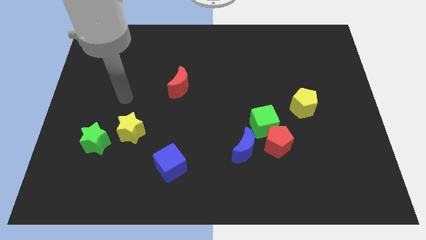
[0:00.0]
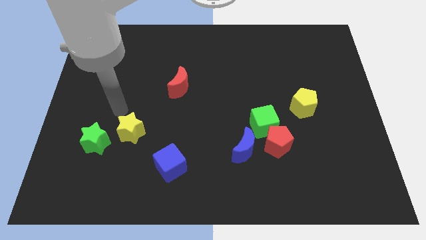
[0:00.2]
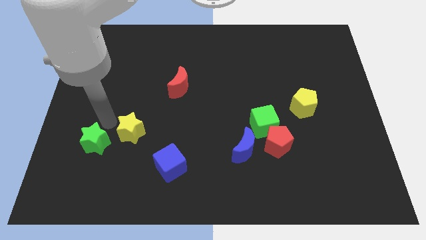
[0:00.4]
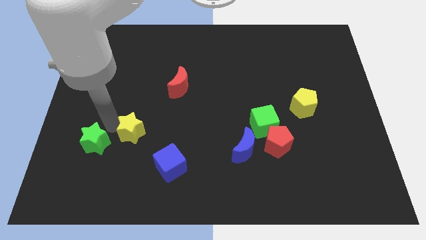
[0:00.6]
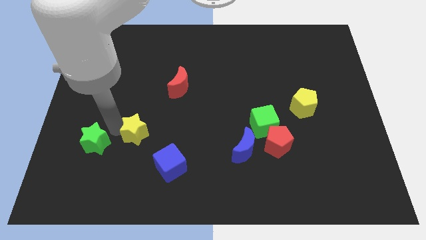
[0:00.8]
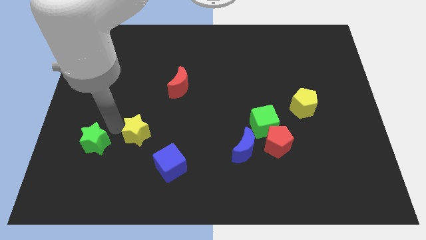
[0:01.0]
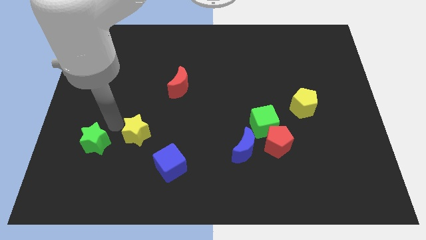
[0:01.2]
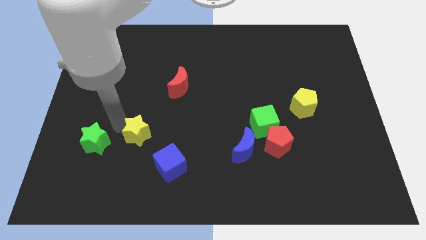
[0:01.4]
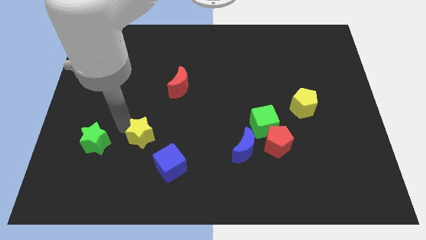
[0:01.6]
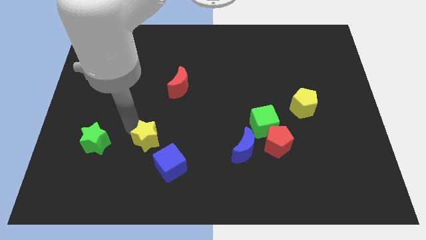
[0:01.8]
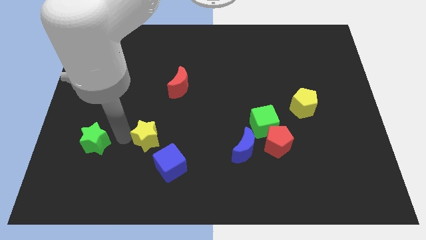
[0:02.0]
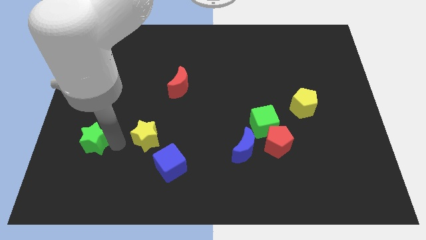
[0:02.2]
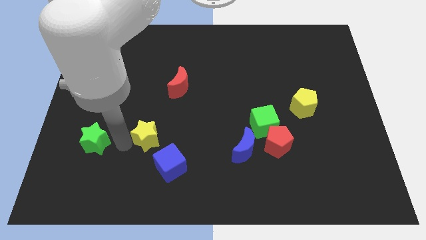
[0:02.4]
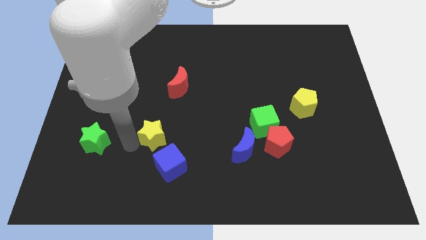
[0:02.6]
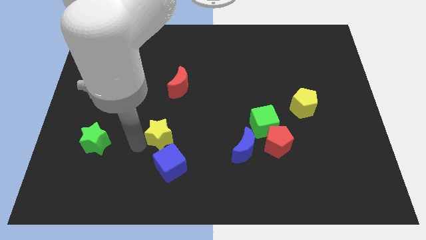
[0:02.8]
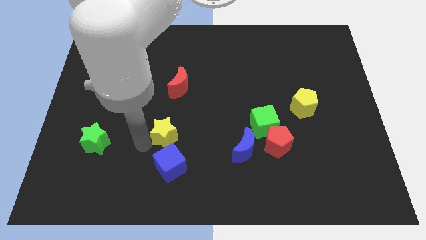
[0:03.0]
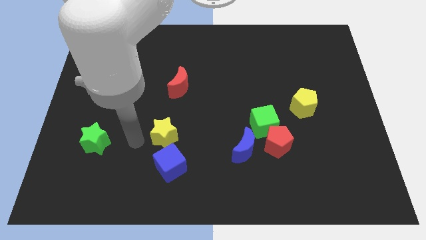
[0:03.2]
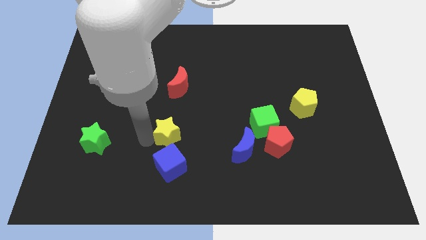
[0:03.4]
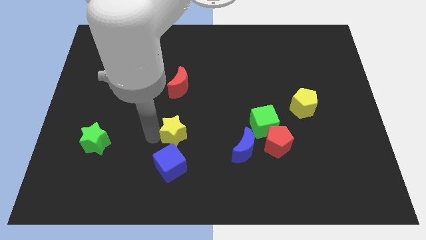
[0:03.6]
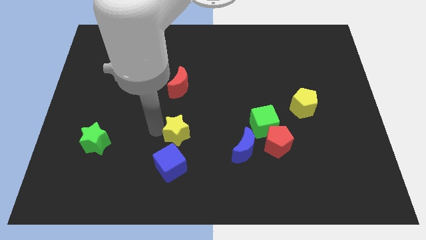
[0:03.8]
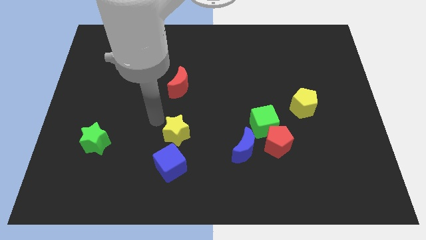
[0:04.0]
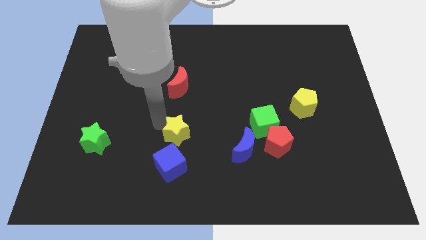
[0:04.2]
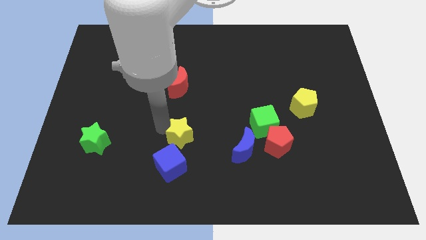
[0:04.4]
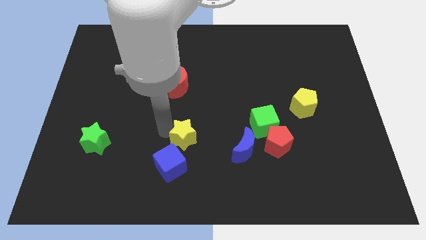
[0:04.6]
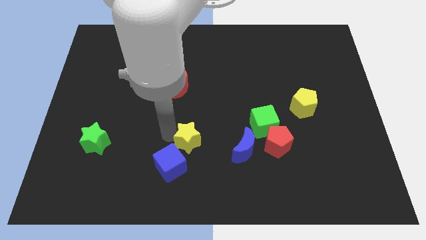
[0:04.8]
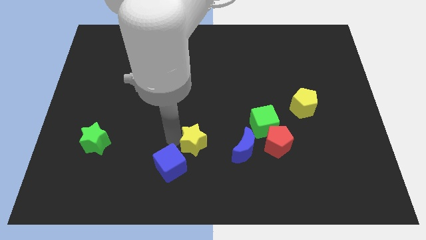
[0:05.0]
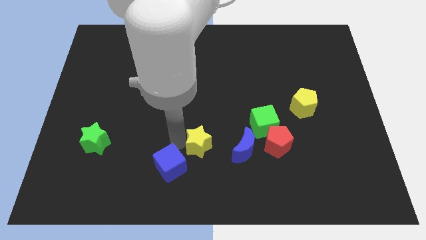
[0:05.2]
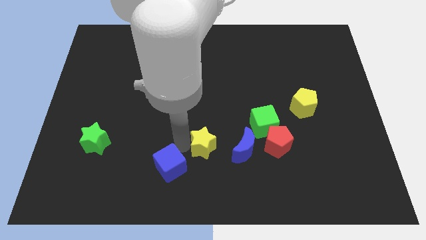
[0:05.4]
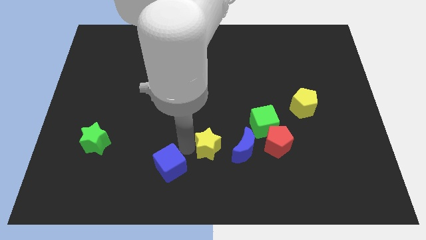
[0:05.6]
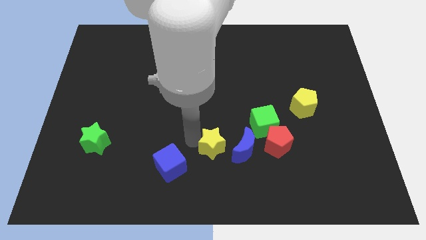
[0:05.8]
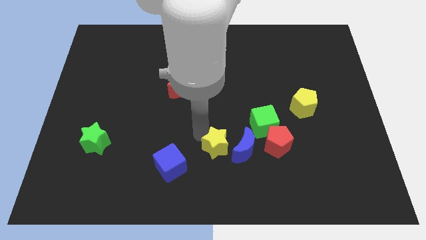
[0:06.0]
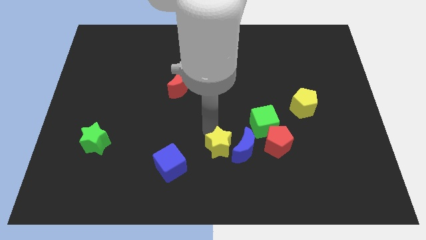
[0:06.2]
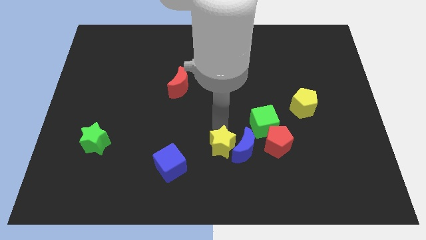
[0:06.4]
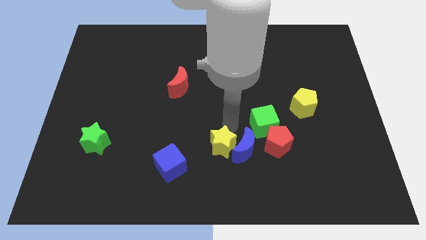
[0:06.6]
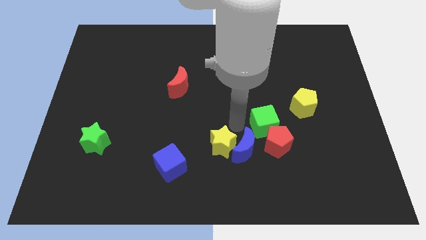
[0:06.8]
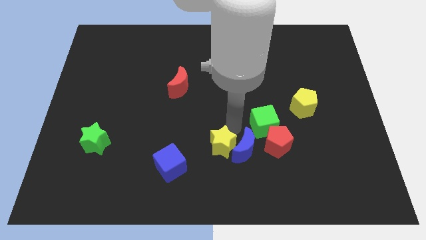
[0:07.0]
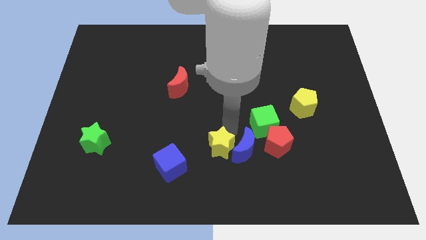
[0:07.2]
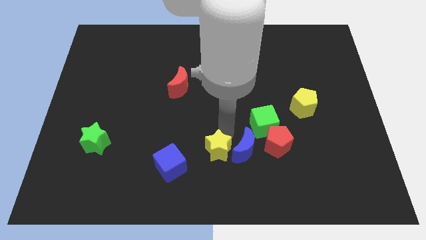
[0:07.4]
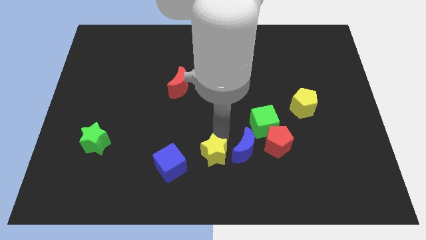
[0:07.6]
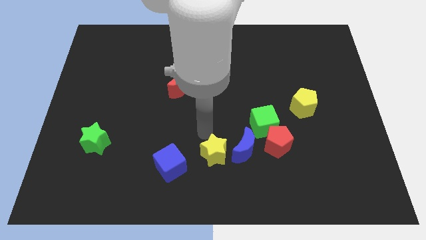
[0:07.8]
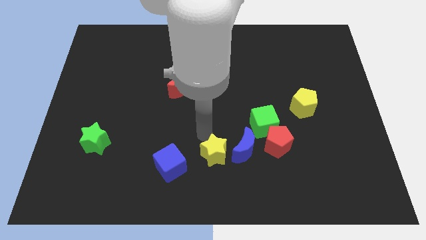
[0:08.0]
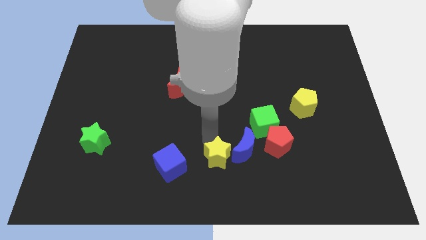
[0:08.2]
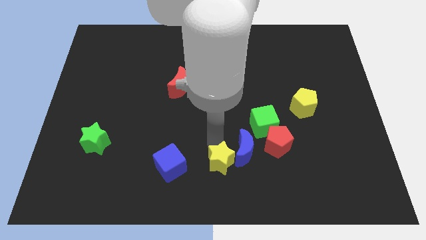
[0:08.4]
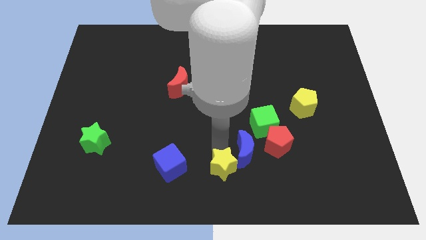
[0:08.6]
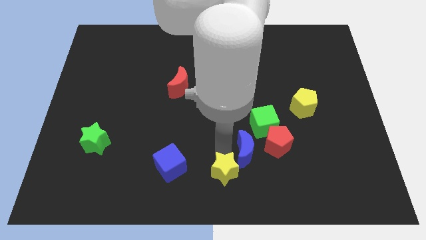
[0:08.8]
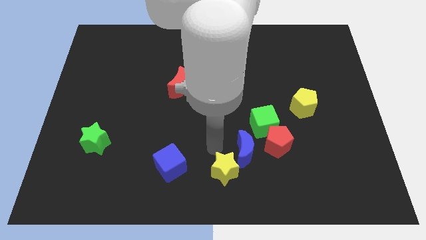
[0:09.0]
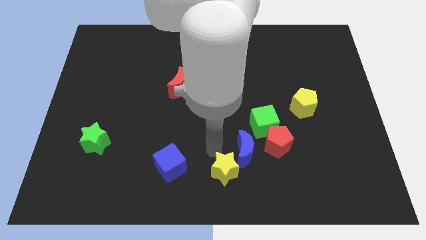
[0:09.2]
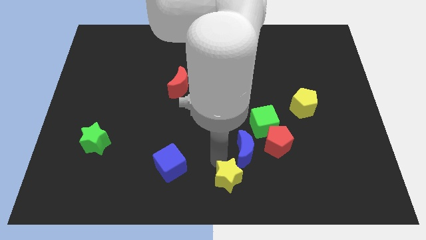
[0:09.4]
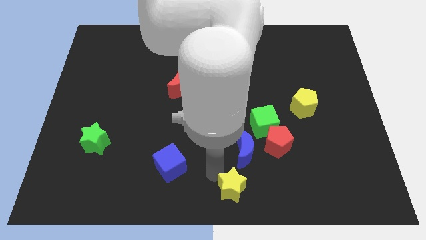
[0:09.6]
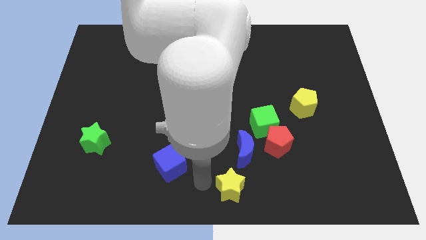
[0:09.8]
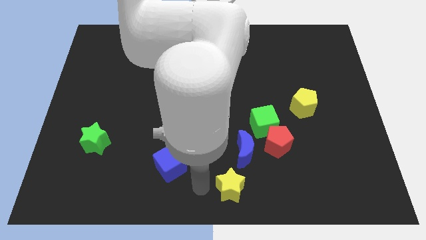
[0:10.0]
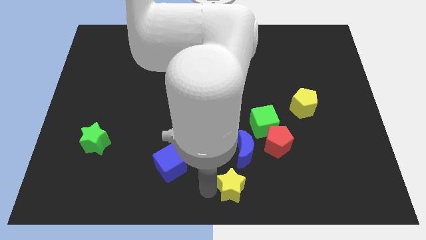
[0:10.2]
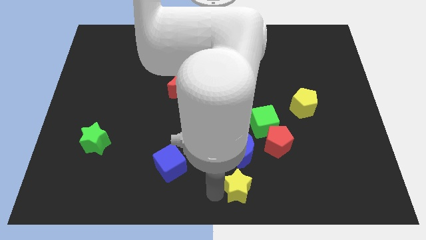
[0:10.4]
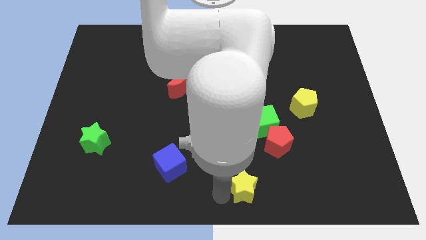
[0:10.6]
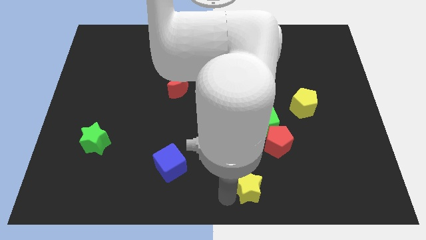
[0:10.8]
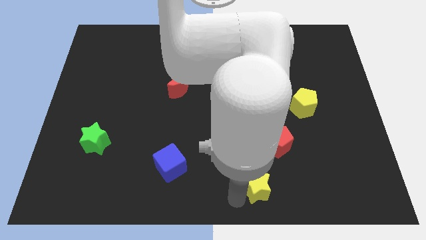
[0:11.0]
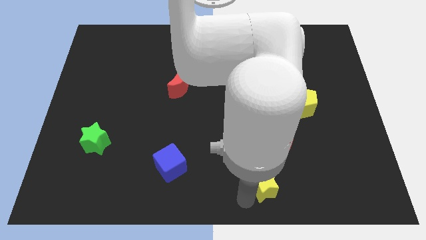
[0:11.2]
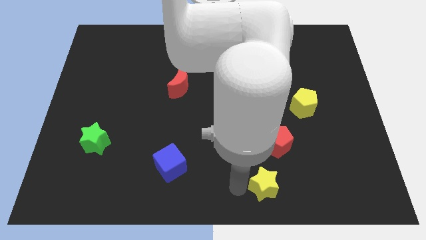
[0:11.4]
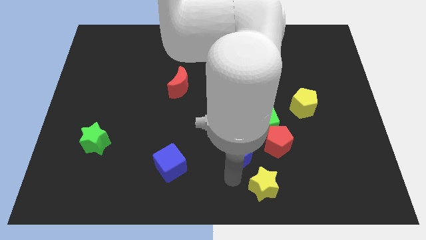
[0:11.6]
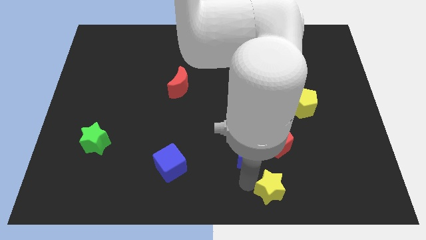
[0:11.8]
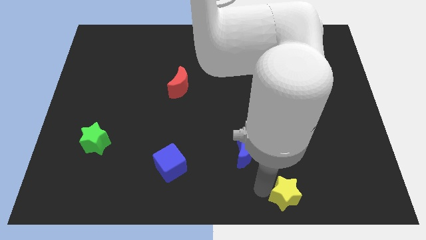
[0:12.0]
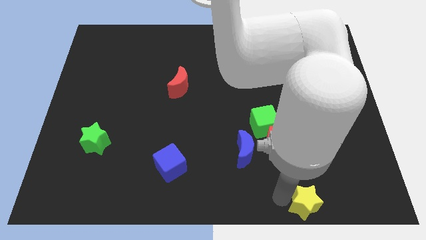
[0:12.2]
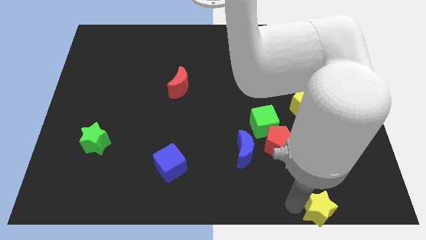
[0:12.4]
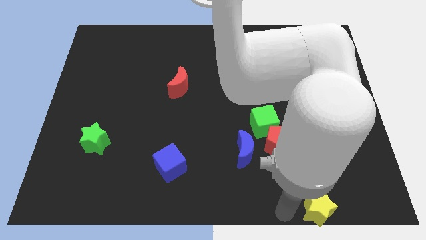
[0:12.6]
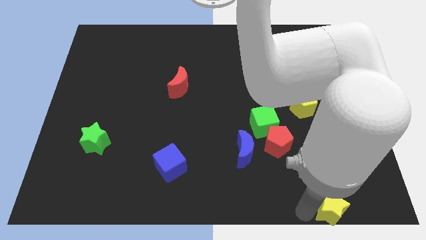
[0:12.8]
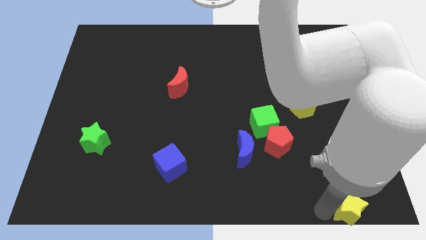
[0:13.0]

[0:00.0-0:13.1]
put the yellow star to the lower right corner
